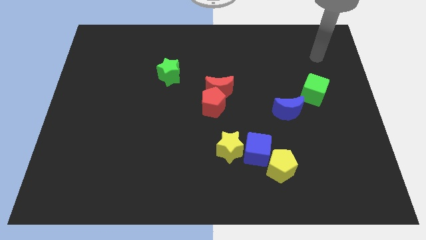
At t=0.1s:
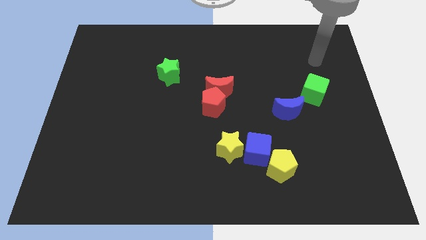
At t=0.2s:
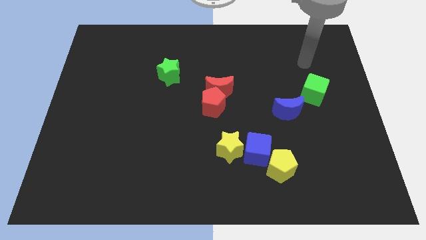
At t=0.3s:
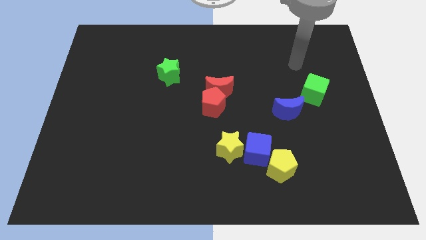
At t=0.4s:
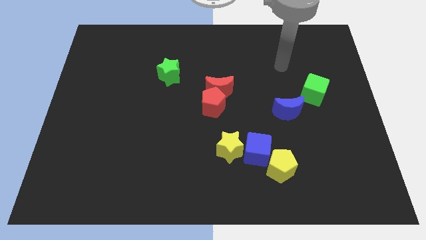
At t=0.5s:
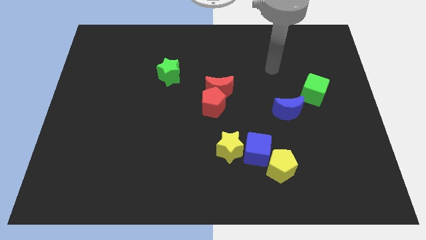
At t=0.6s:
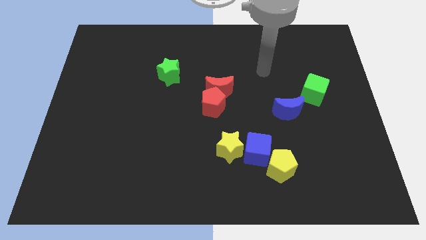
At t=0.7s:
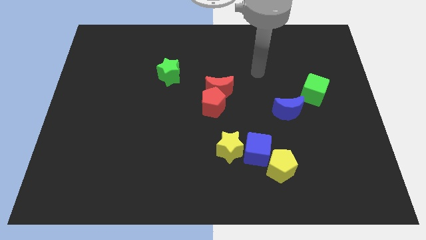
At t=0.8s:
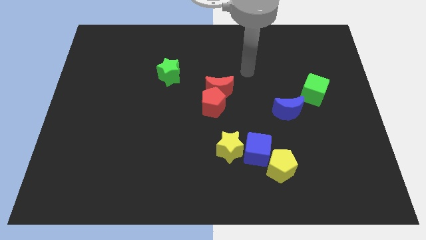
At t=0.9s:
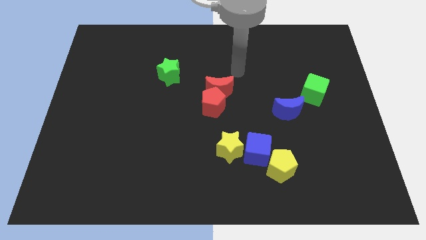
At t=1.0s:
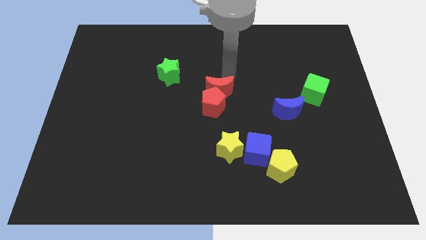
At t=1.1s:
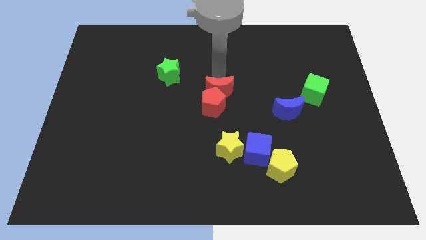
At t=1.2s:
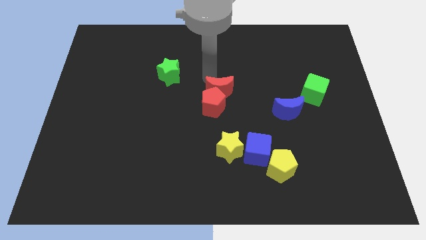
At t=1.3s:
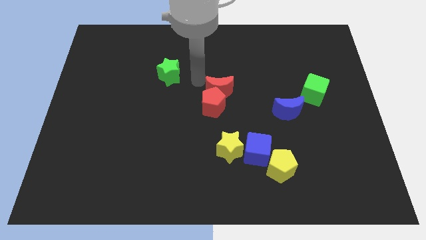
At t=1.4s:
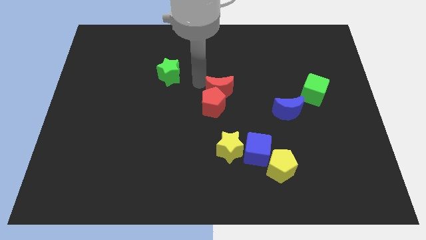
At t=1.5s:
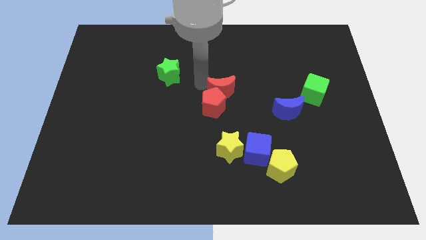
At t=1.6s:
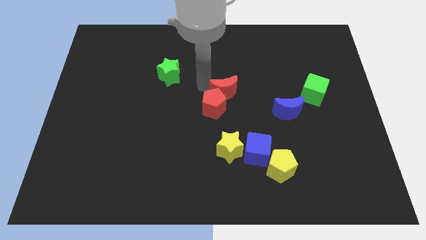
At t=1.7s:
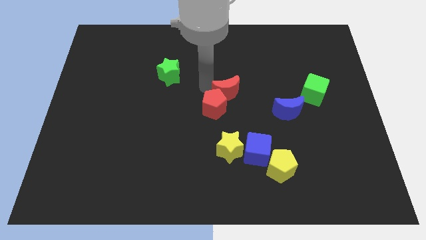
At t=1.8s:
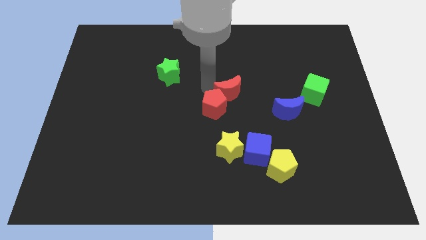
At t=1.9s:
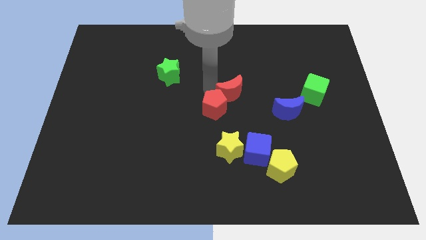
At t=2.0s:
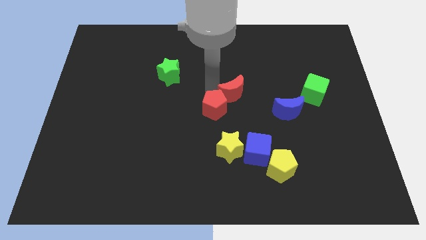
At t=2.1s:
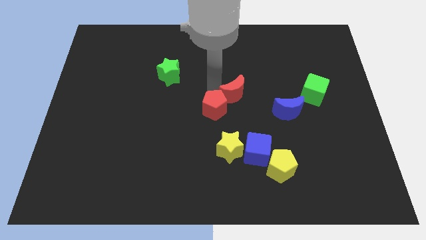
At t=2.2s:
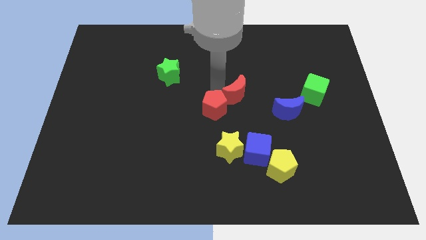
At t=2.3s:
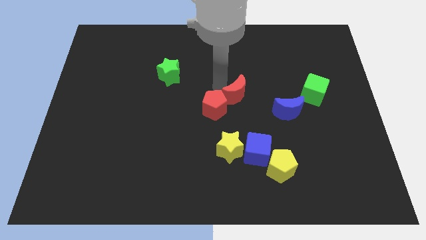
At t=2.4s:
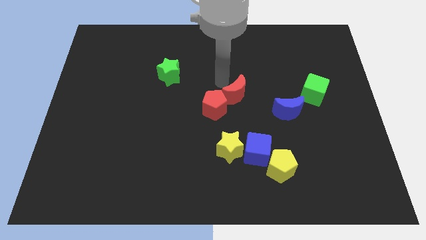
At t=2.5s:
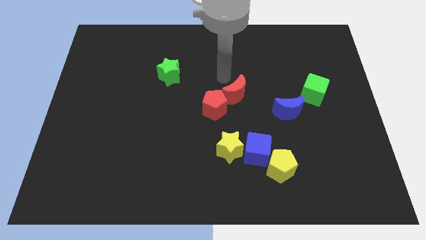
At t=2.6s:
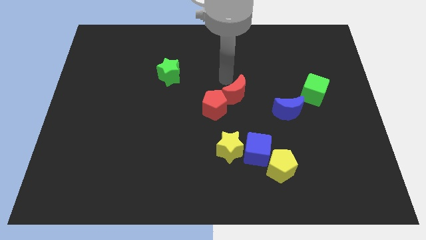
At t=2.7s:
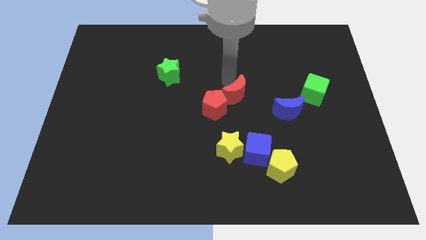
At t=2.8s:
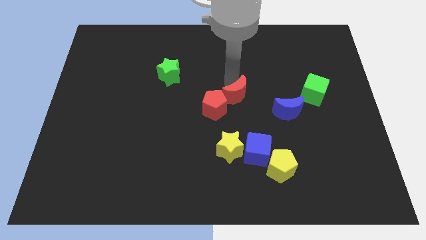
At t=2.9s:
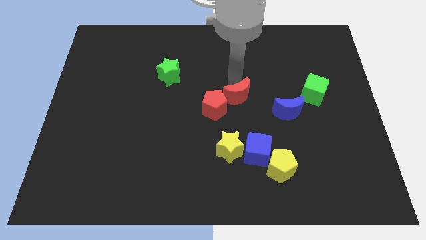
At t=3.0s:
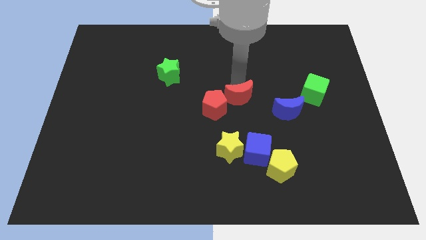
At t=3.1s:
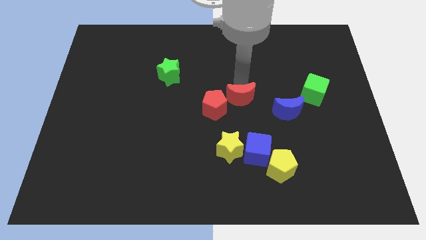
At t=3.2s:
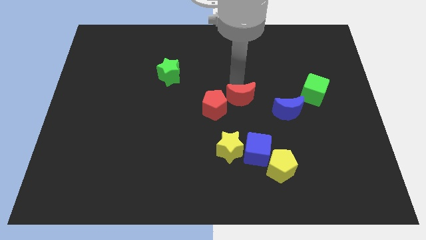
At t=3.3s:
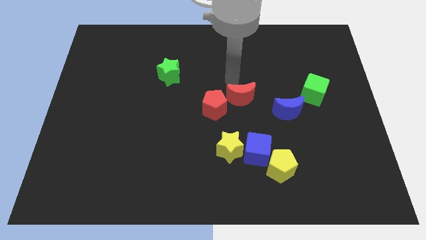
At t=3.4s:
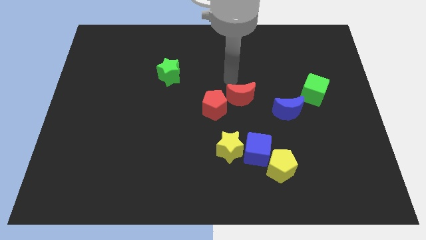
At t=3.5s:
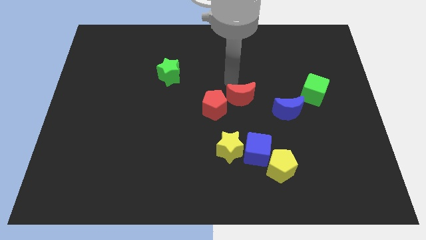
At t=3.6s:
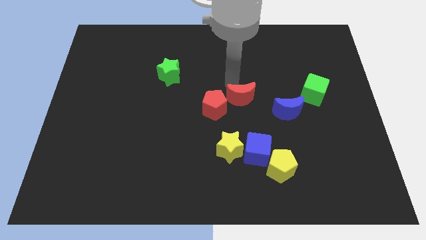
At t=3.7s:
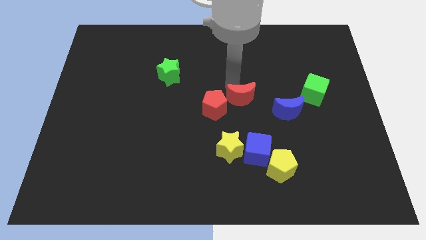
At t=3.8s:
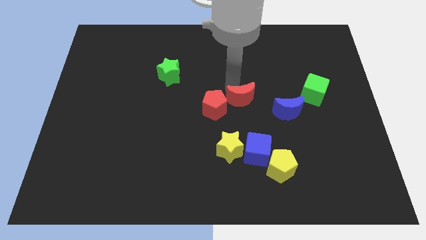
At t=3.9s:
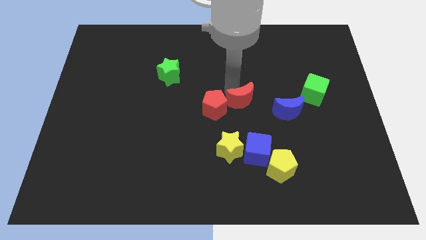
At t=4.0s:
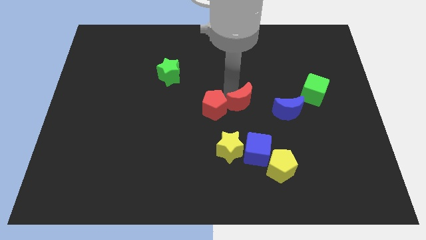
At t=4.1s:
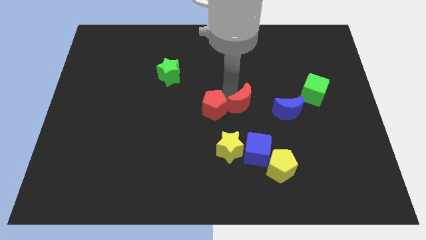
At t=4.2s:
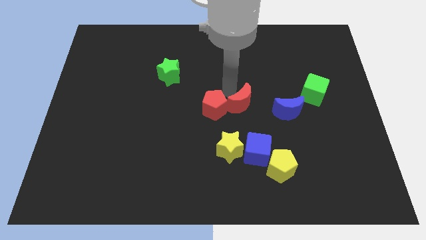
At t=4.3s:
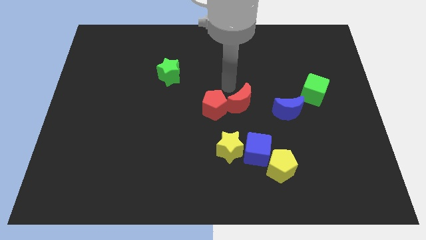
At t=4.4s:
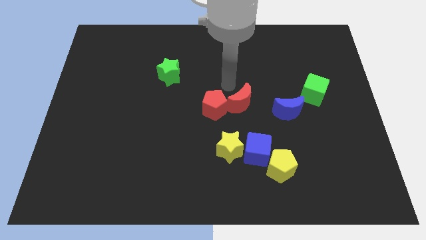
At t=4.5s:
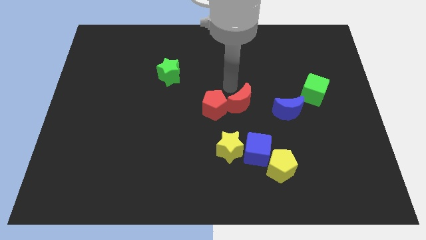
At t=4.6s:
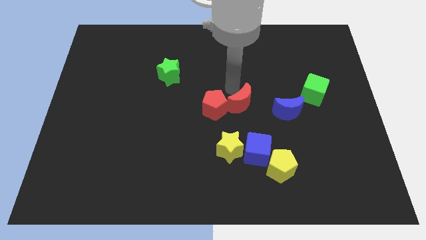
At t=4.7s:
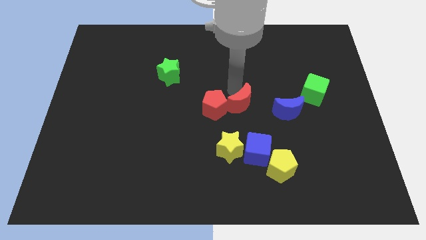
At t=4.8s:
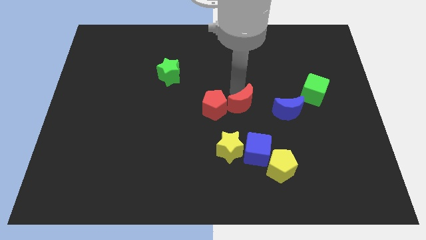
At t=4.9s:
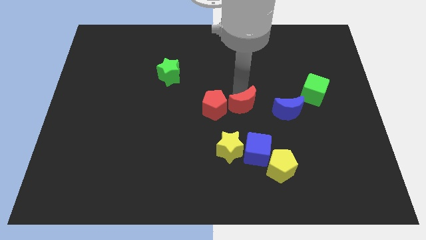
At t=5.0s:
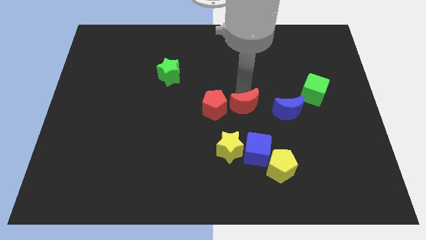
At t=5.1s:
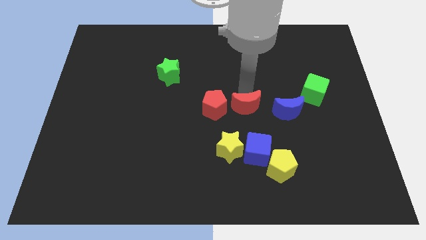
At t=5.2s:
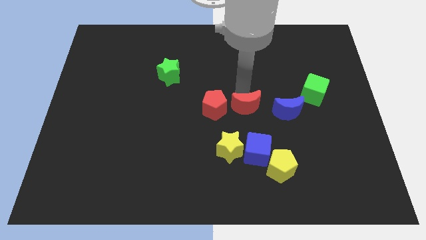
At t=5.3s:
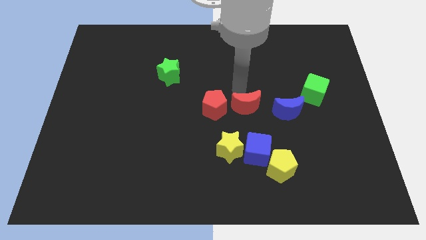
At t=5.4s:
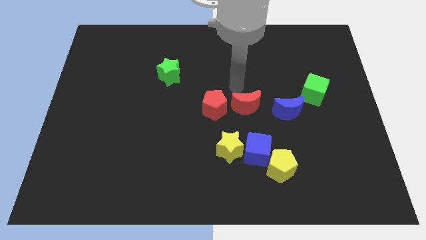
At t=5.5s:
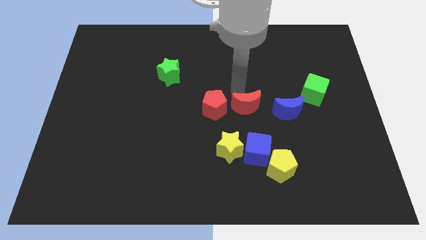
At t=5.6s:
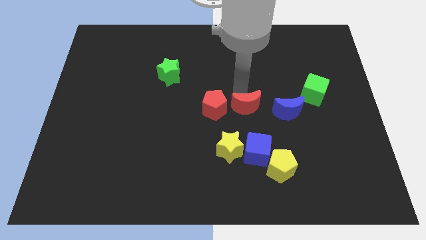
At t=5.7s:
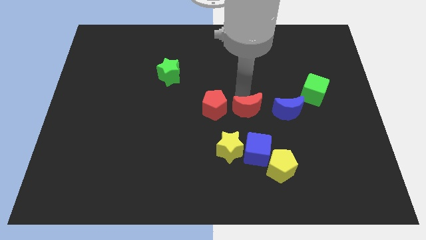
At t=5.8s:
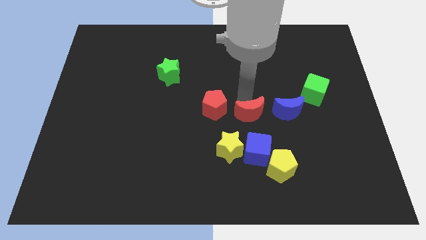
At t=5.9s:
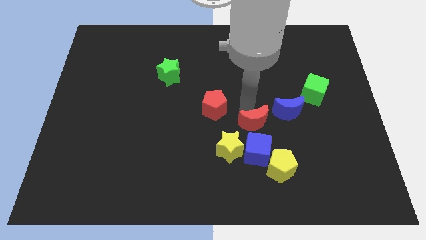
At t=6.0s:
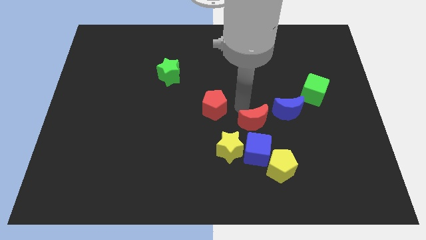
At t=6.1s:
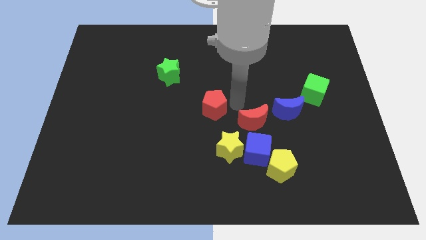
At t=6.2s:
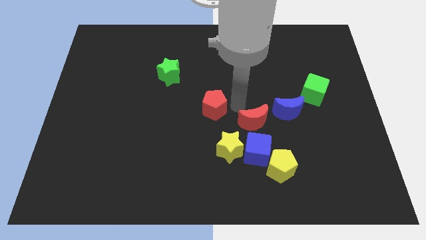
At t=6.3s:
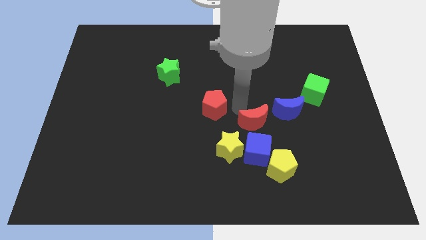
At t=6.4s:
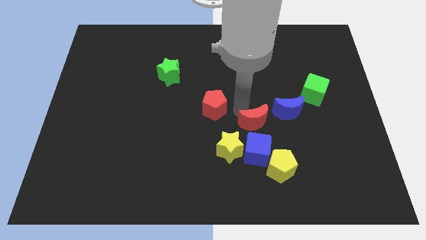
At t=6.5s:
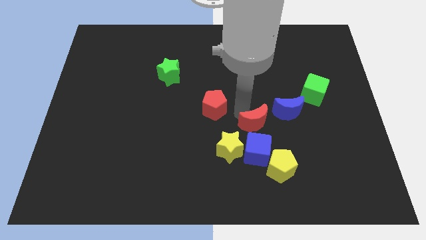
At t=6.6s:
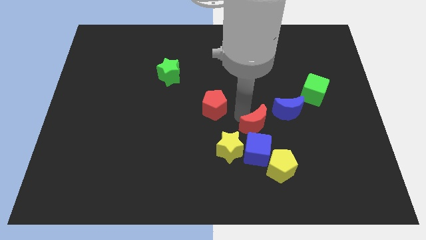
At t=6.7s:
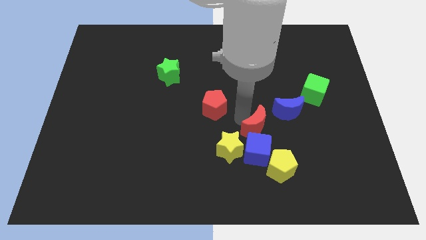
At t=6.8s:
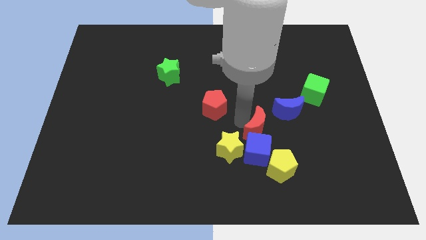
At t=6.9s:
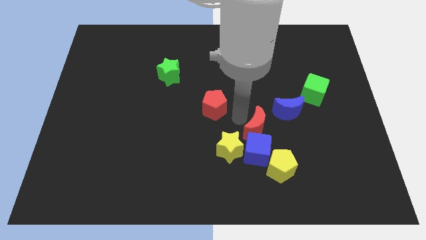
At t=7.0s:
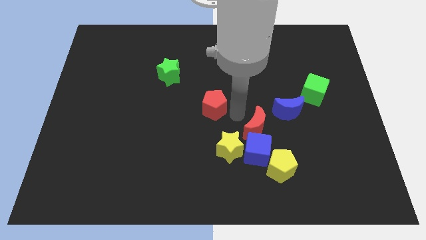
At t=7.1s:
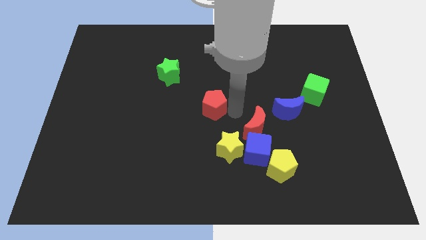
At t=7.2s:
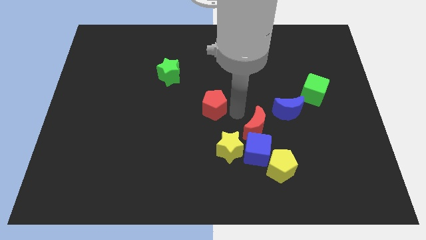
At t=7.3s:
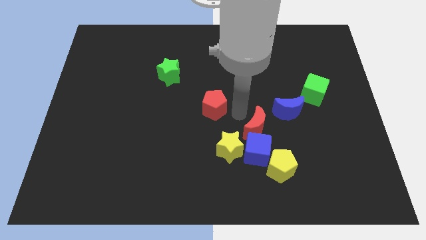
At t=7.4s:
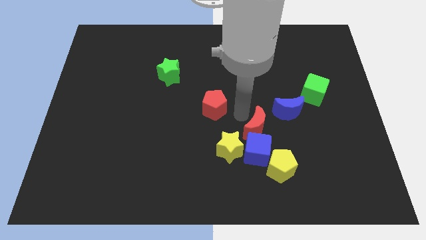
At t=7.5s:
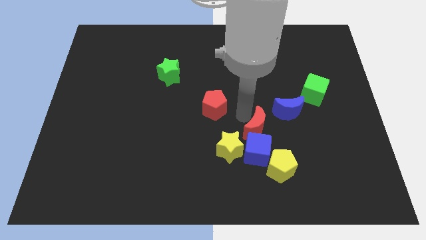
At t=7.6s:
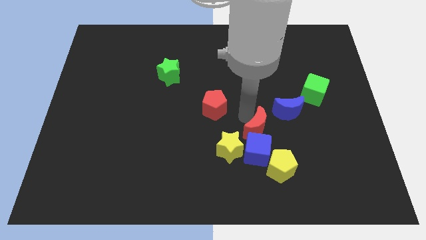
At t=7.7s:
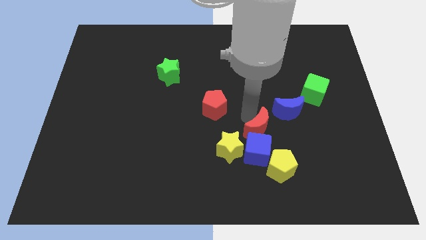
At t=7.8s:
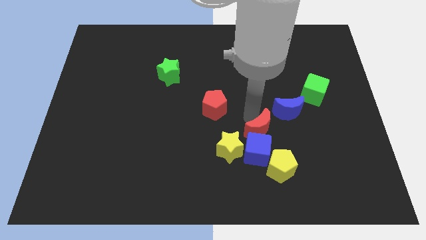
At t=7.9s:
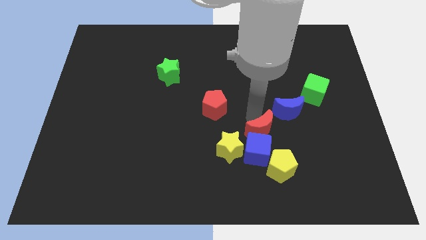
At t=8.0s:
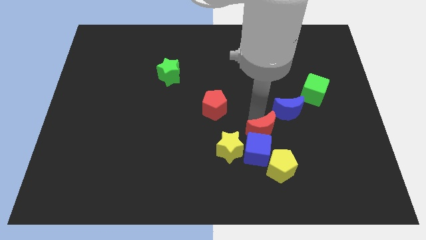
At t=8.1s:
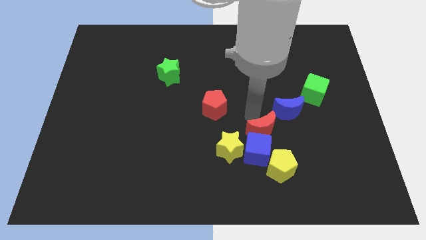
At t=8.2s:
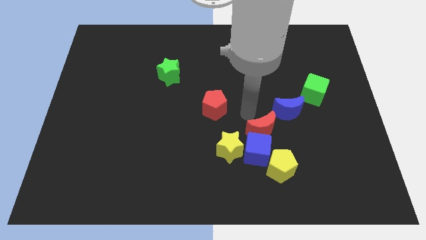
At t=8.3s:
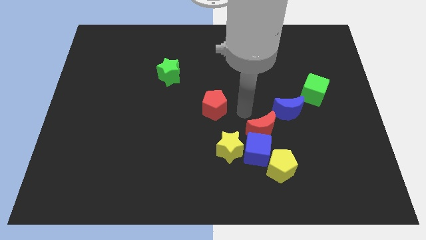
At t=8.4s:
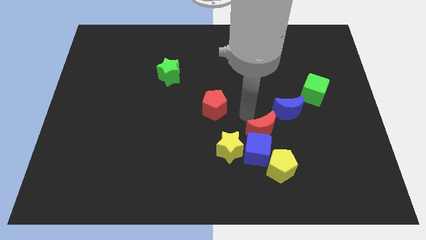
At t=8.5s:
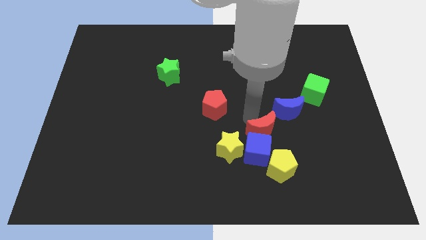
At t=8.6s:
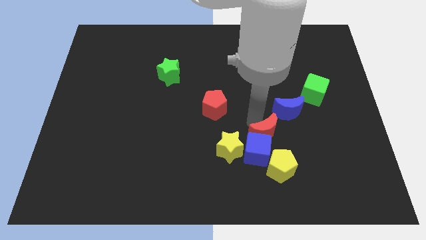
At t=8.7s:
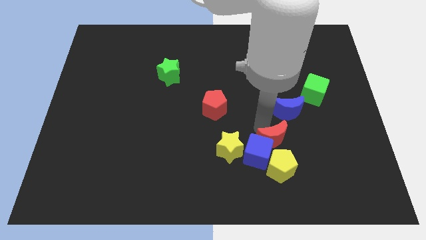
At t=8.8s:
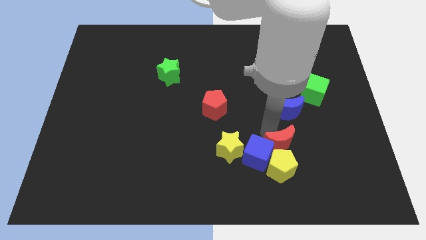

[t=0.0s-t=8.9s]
slide the red moon next to the yellow pentagon

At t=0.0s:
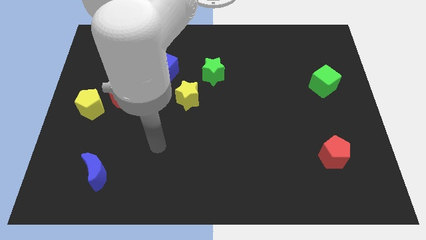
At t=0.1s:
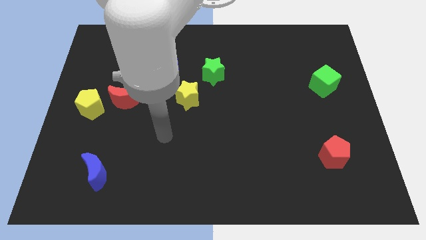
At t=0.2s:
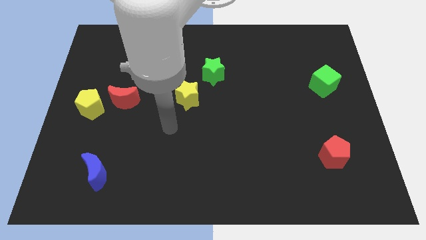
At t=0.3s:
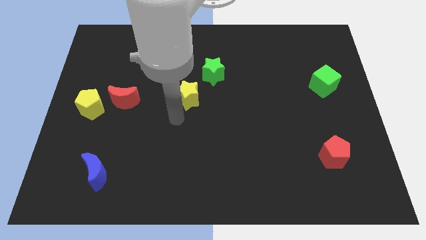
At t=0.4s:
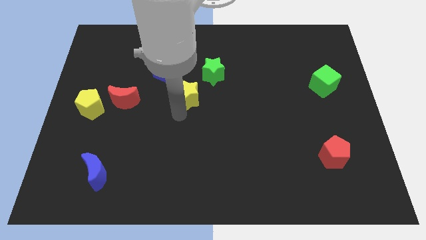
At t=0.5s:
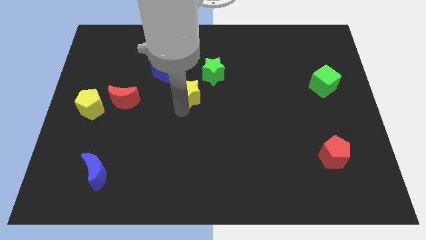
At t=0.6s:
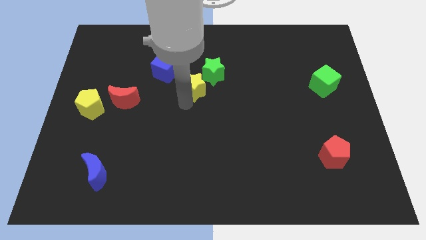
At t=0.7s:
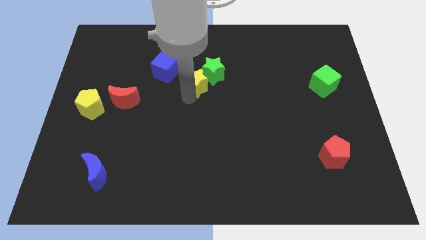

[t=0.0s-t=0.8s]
push the yellow star next to the green star
